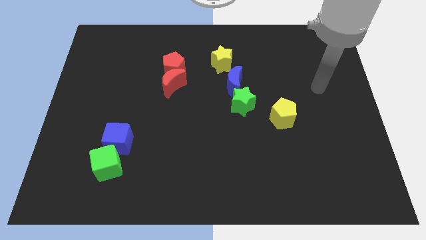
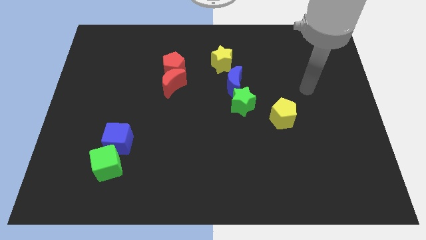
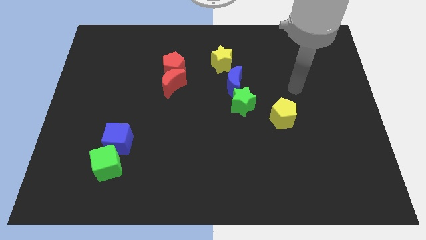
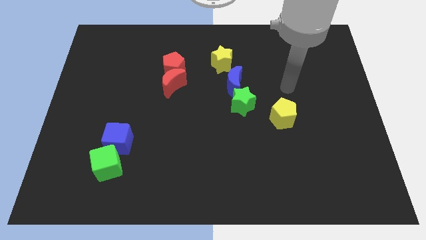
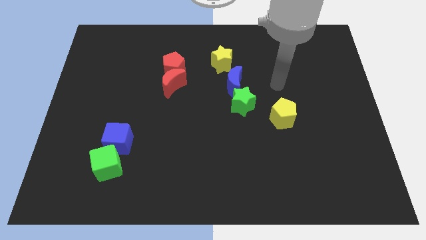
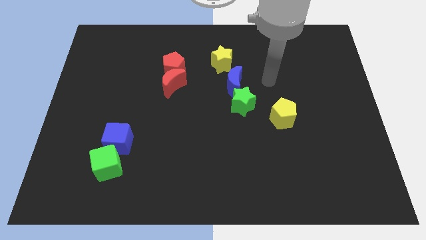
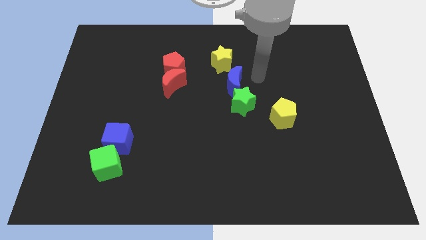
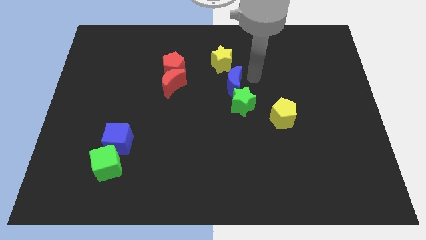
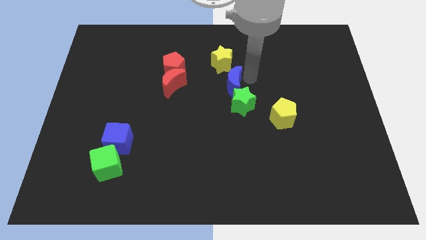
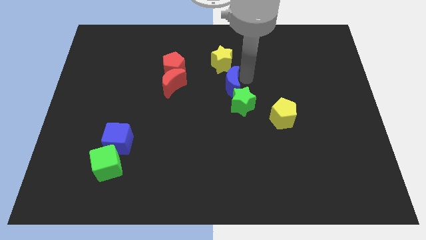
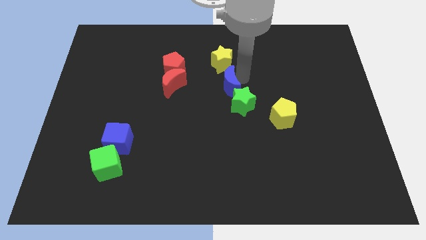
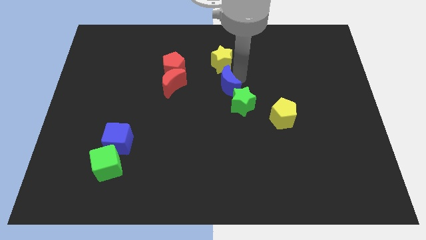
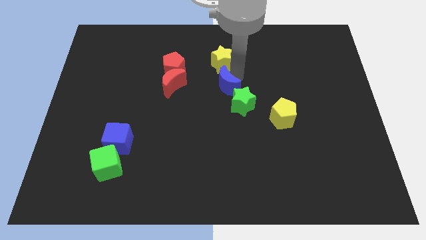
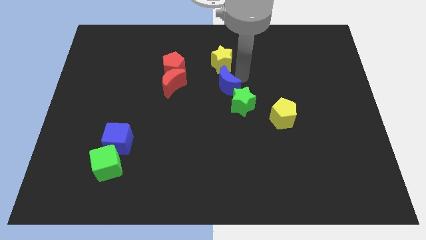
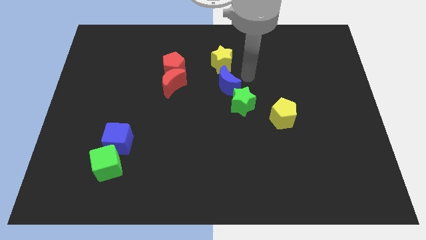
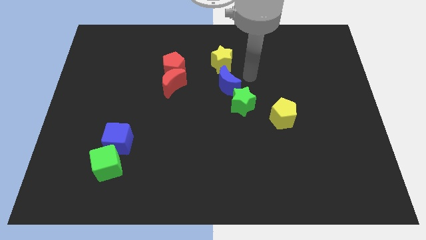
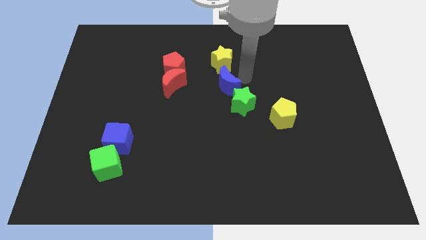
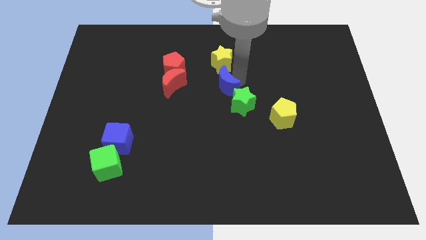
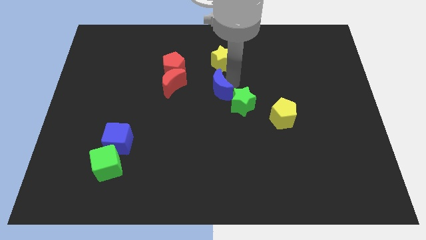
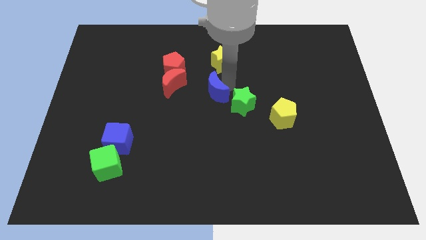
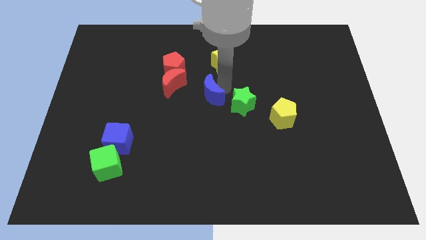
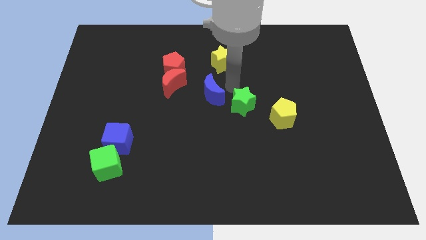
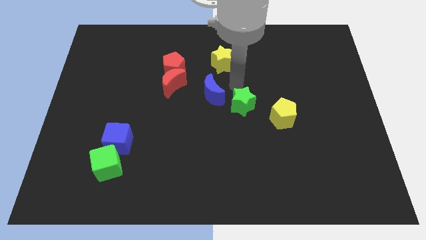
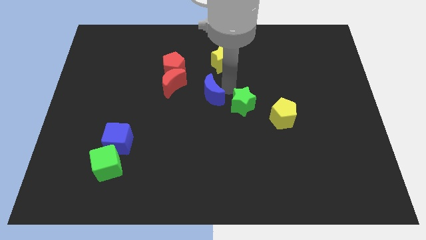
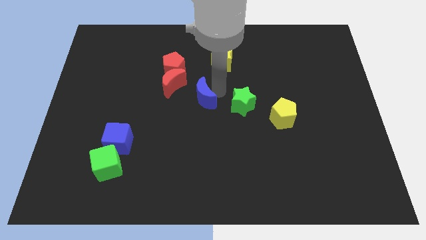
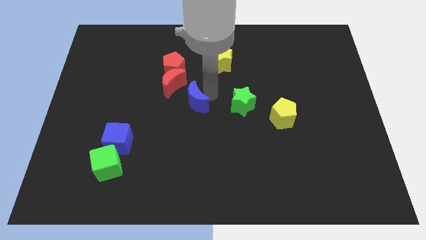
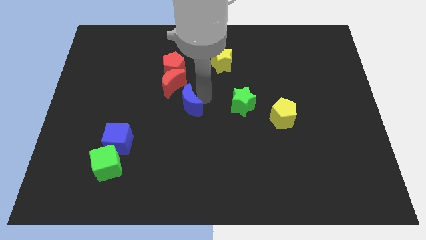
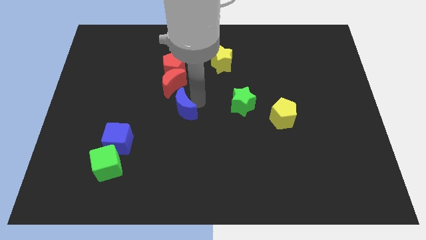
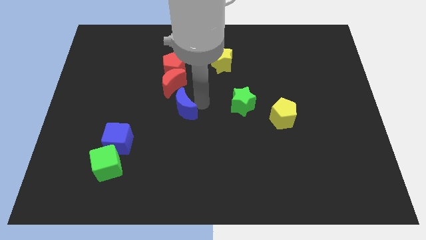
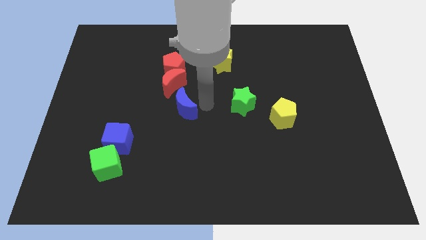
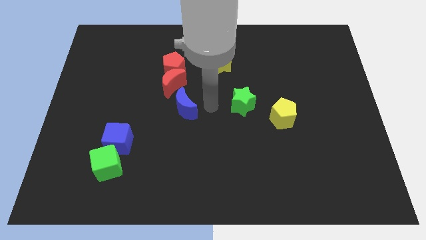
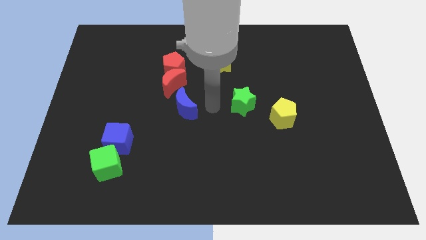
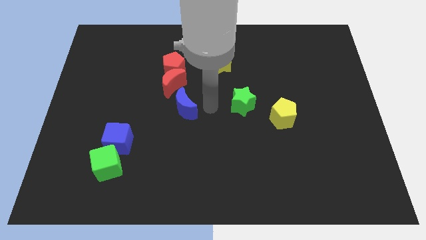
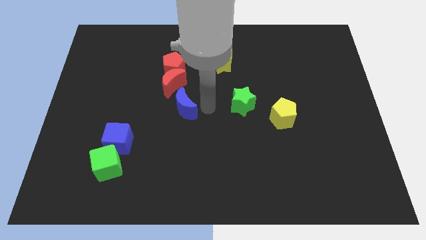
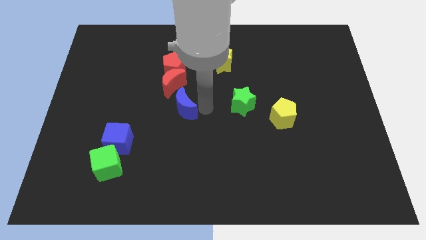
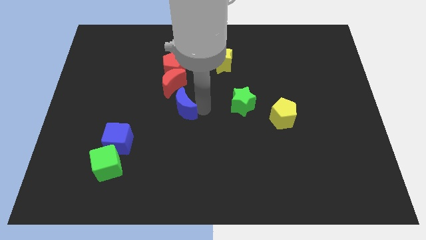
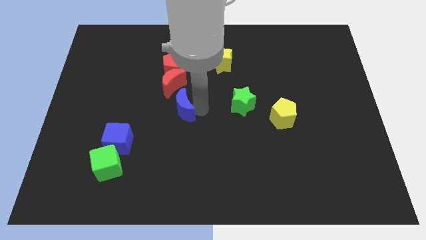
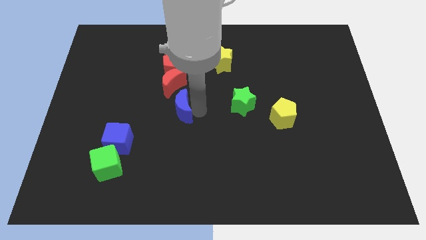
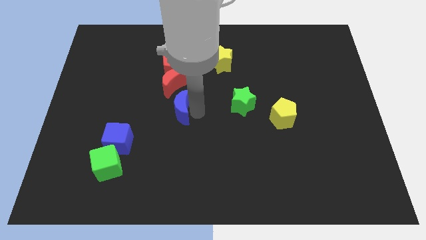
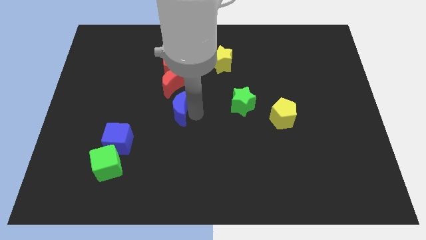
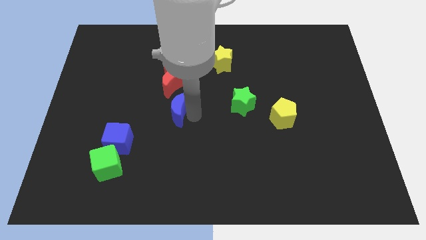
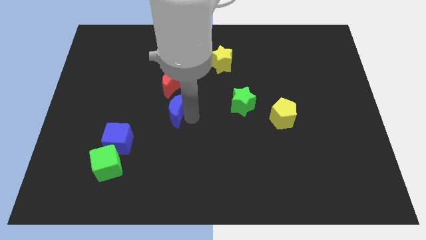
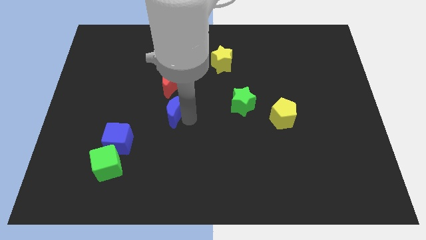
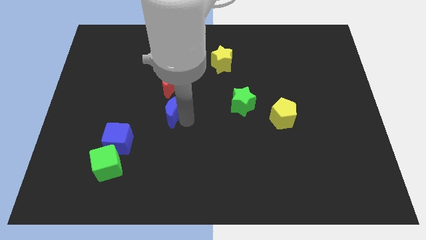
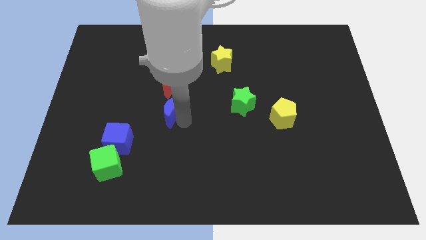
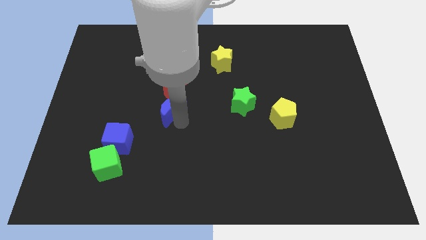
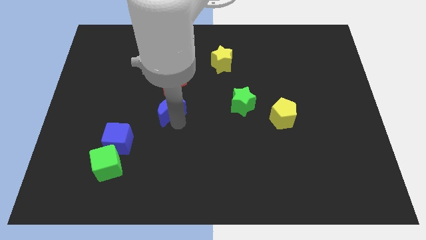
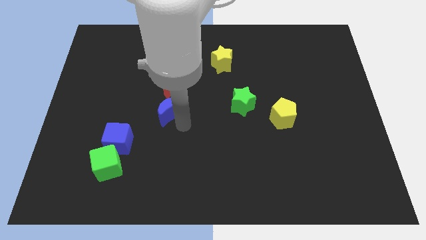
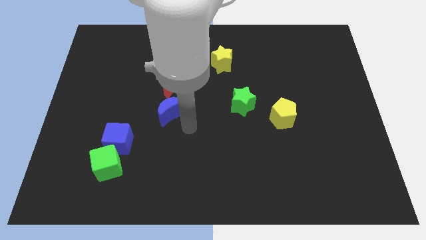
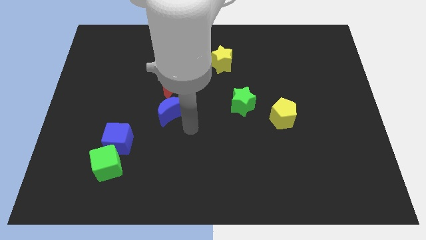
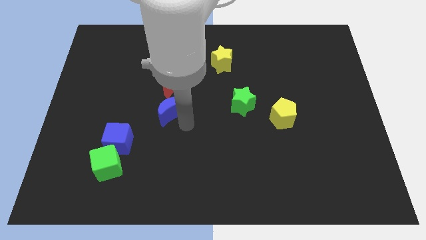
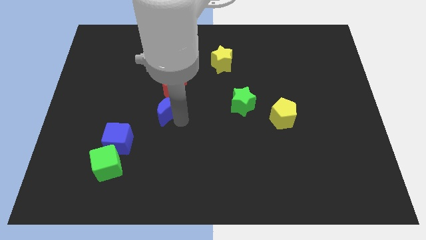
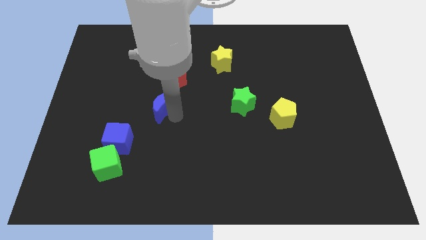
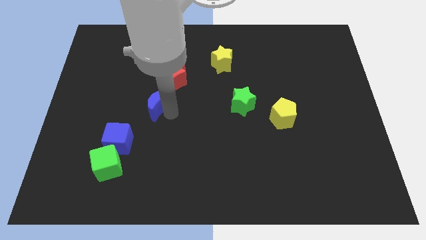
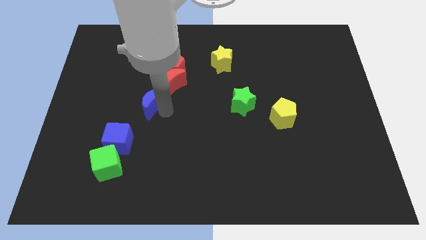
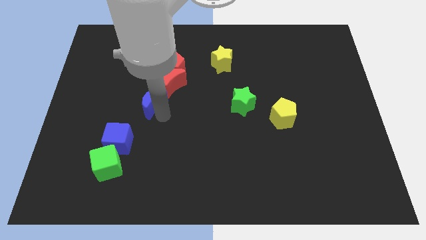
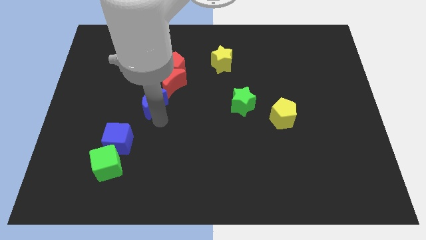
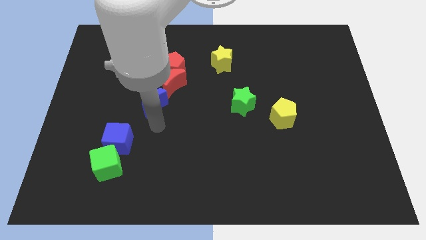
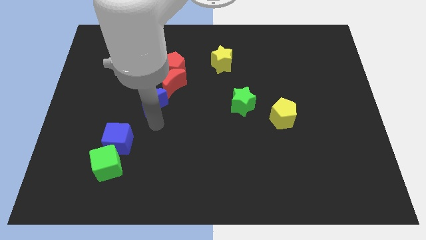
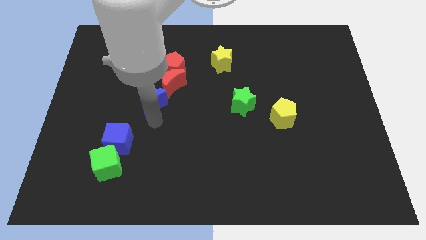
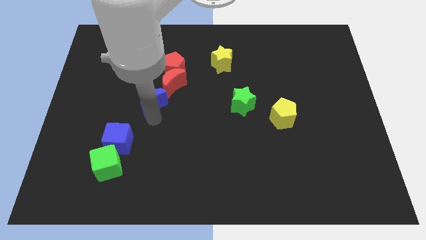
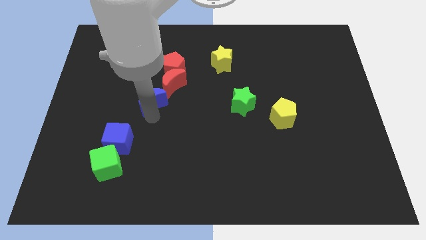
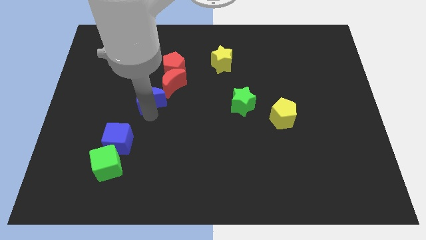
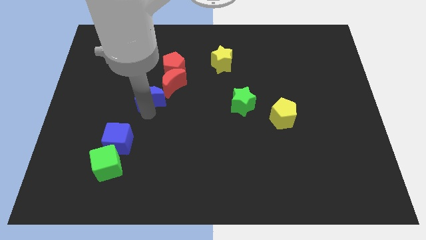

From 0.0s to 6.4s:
slide the blue moon to the bottom left of the red pentagon

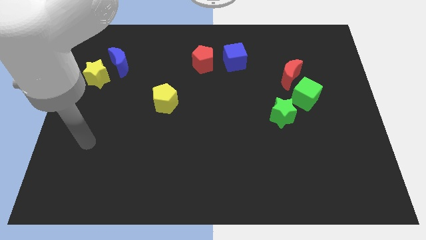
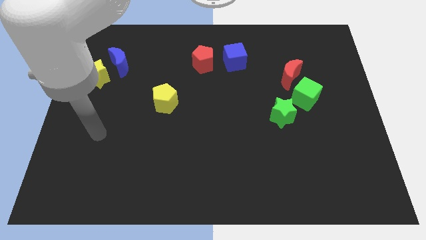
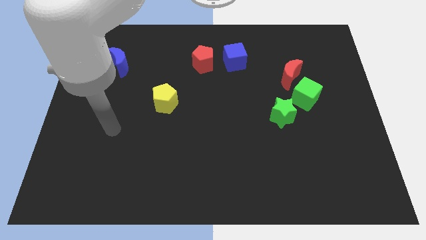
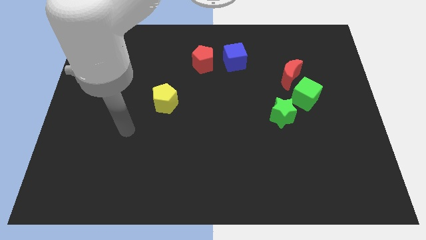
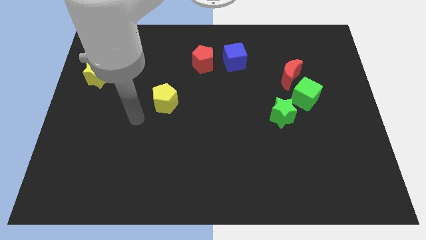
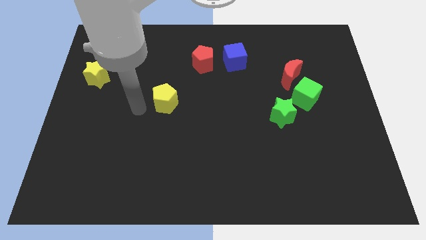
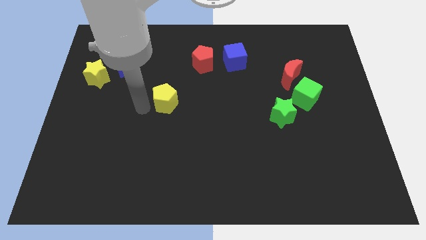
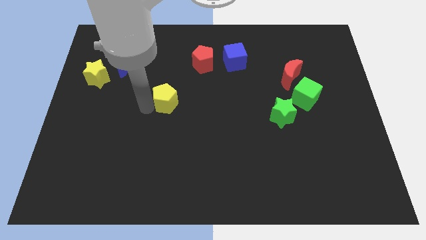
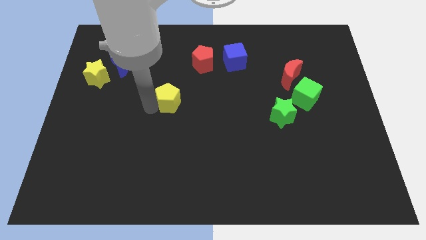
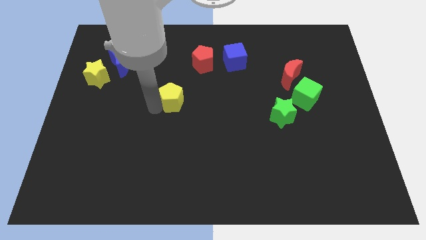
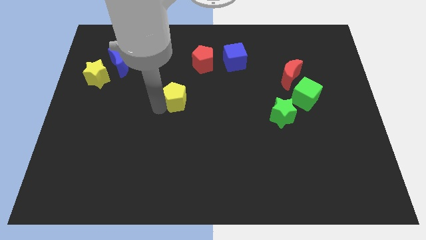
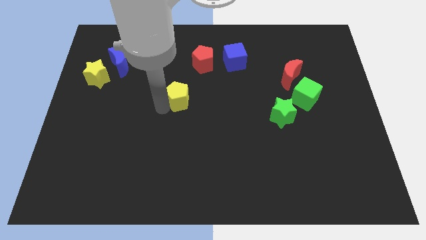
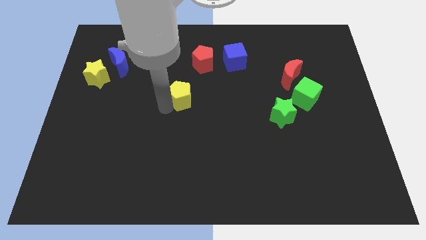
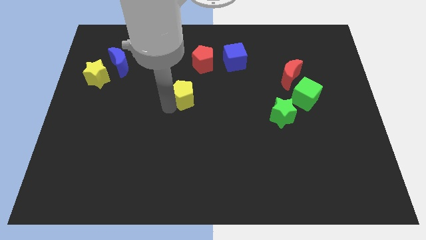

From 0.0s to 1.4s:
put the yellow pentagon to the bottom side of the red pentagon
